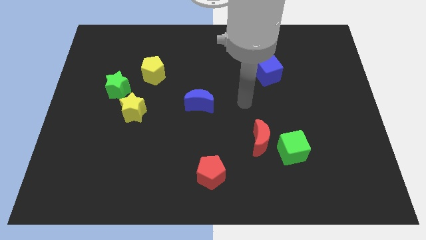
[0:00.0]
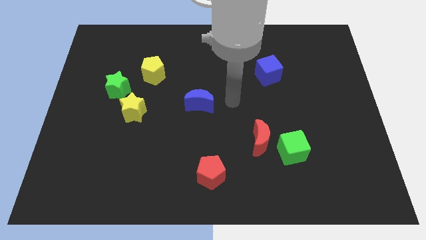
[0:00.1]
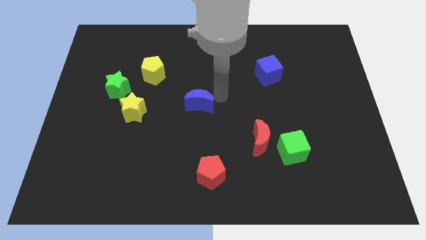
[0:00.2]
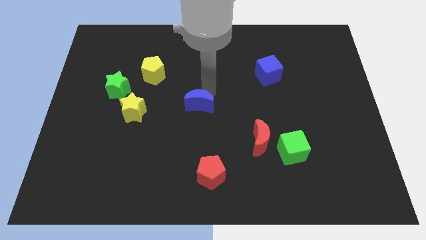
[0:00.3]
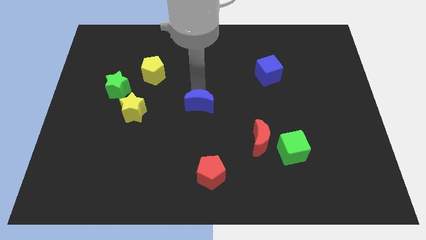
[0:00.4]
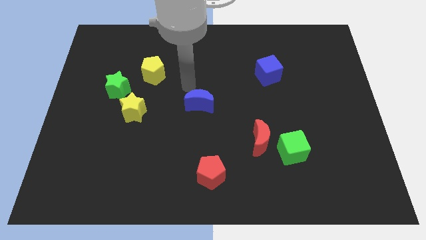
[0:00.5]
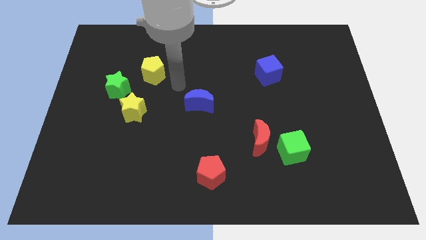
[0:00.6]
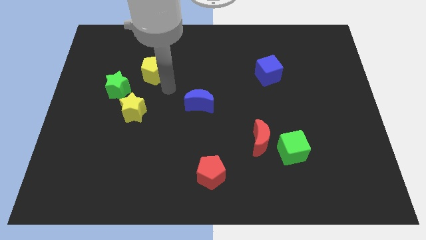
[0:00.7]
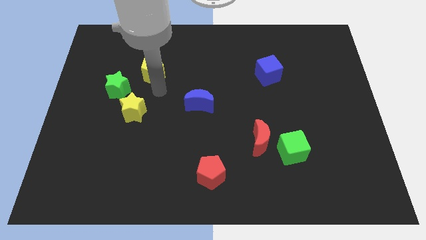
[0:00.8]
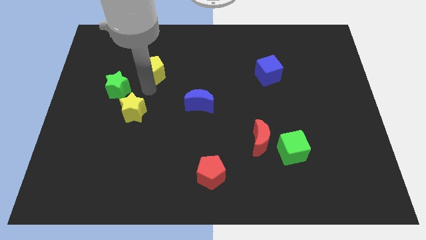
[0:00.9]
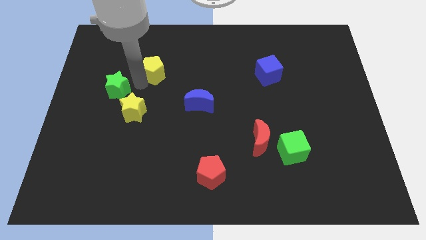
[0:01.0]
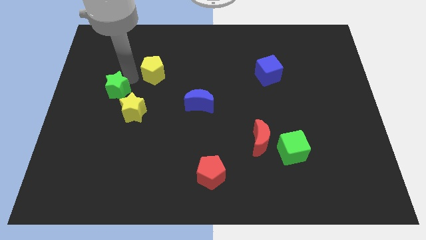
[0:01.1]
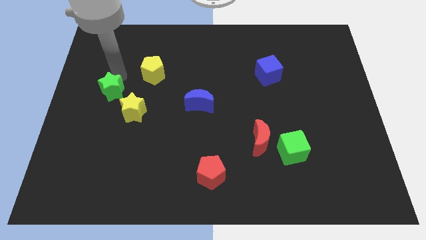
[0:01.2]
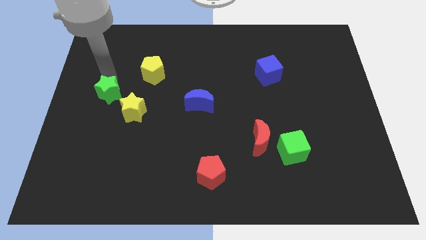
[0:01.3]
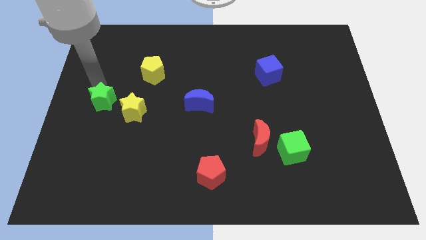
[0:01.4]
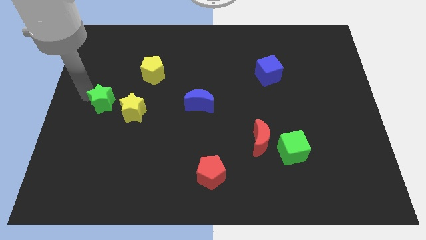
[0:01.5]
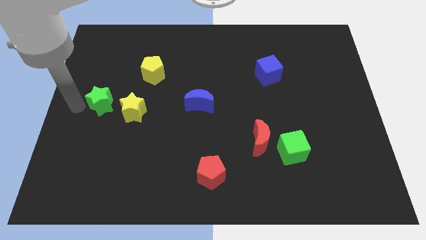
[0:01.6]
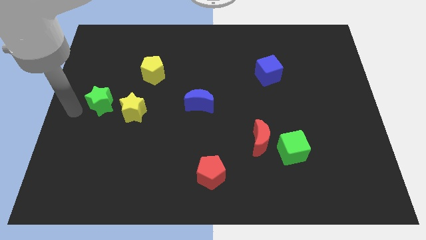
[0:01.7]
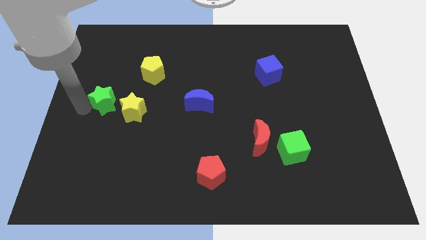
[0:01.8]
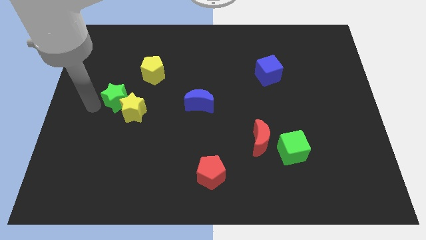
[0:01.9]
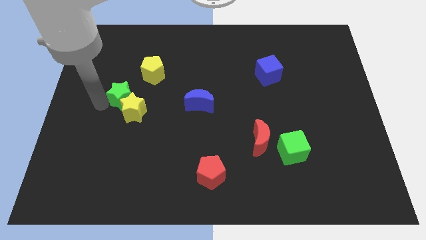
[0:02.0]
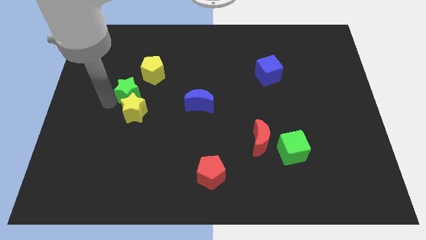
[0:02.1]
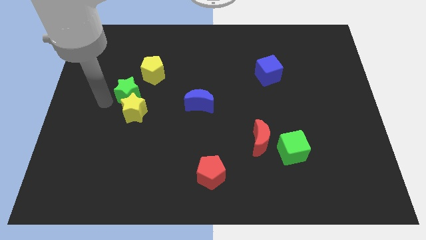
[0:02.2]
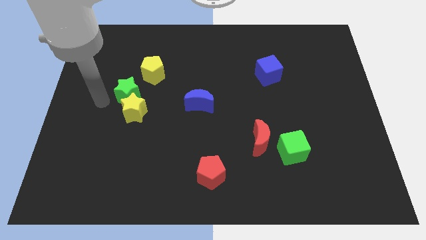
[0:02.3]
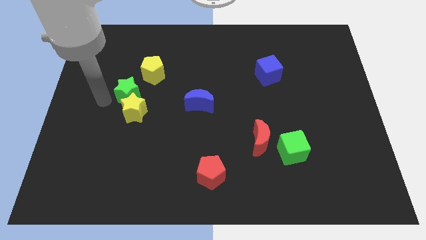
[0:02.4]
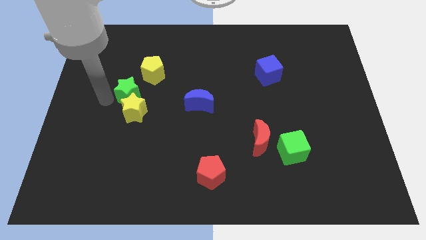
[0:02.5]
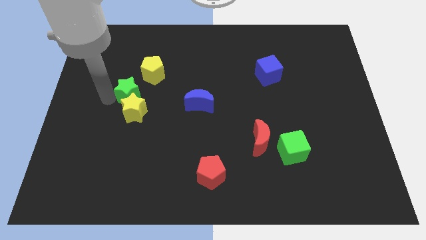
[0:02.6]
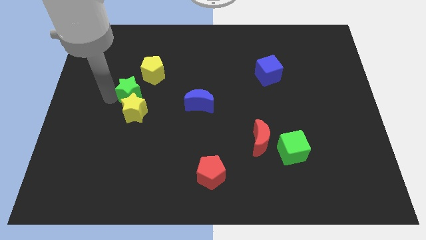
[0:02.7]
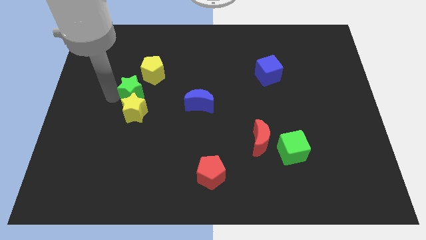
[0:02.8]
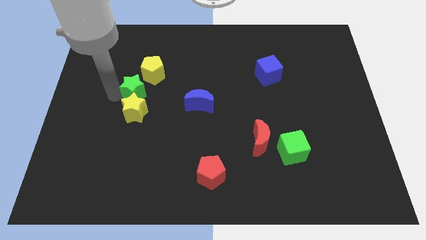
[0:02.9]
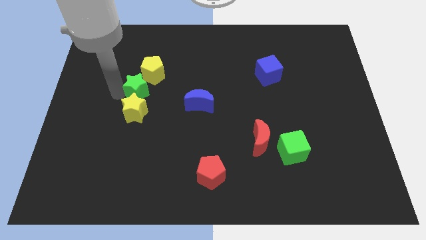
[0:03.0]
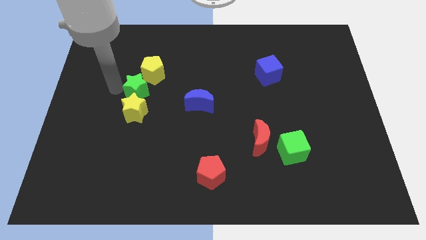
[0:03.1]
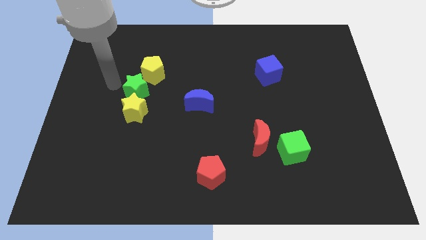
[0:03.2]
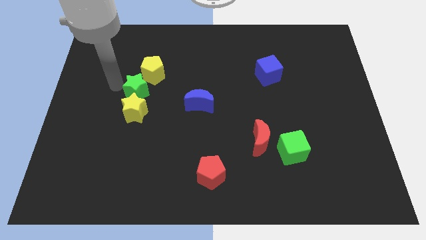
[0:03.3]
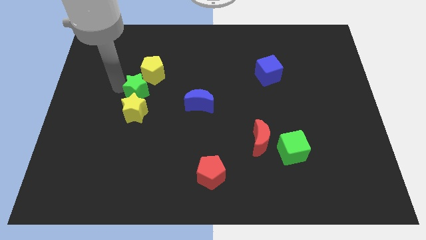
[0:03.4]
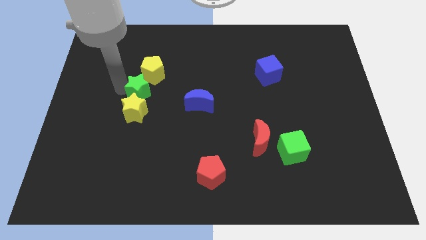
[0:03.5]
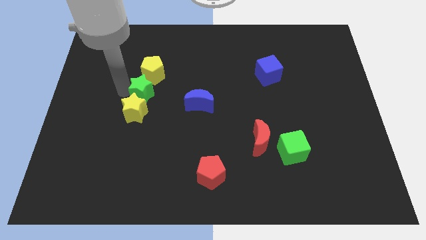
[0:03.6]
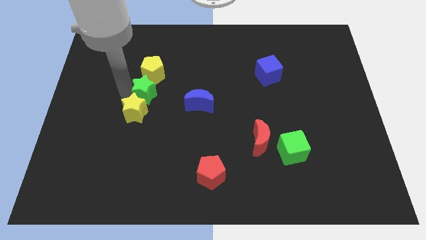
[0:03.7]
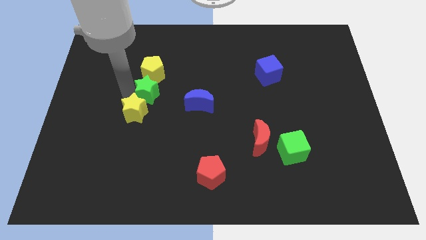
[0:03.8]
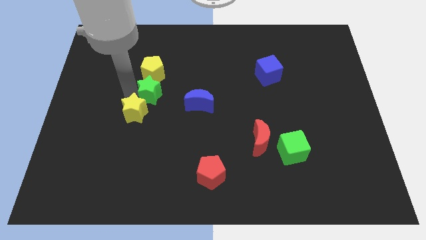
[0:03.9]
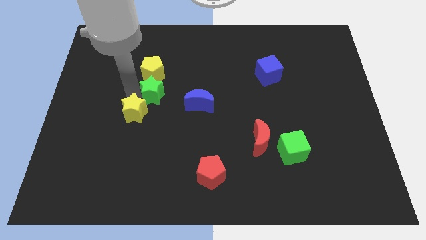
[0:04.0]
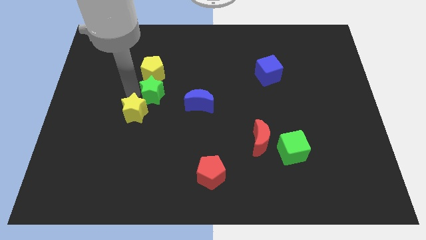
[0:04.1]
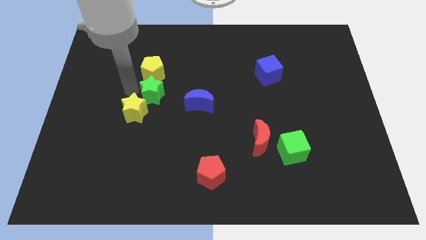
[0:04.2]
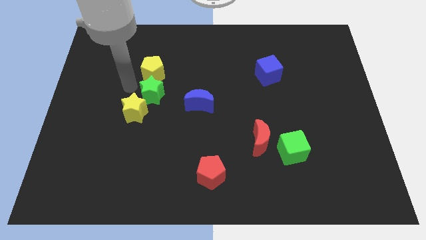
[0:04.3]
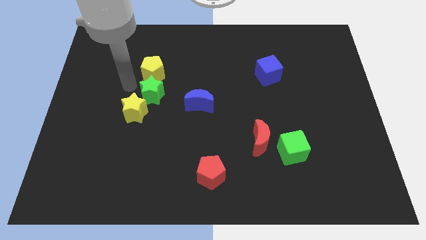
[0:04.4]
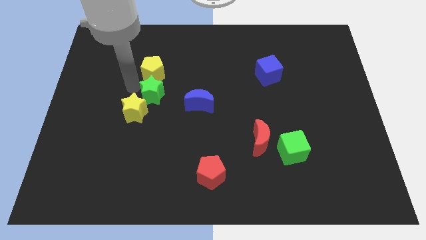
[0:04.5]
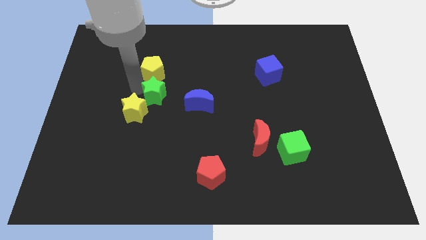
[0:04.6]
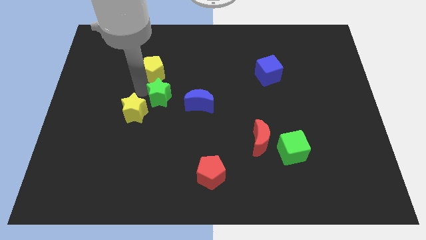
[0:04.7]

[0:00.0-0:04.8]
move the green star slightly downwards and to the right

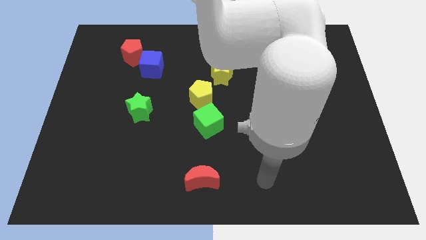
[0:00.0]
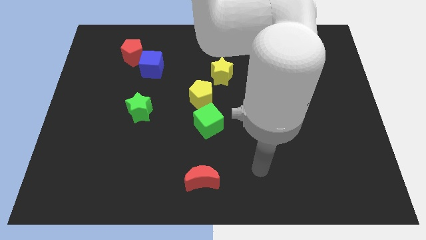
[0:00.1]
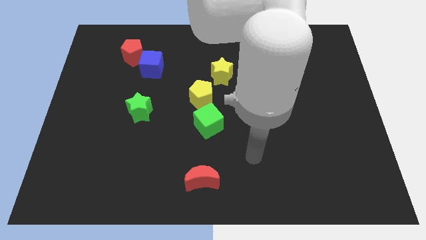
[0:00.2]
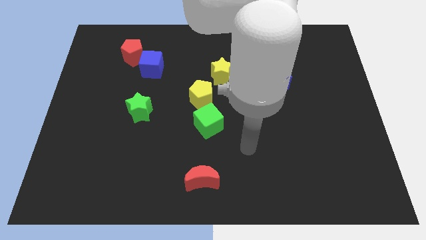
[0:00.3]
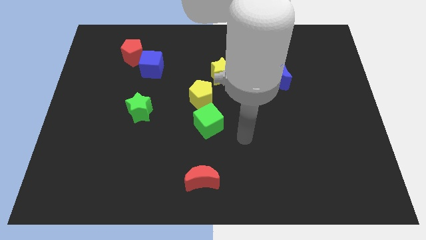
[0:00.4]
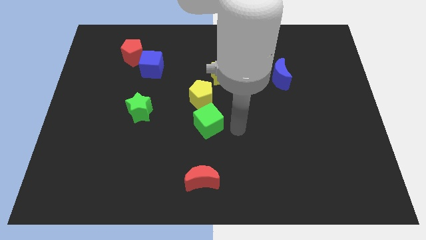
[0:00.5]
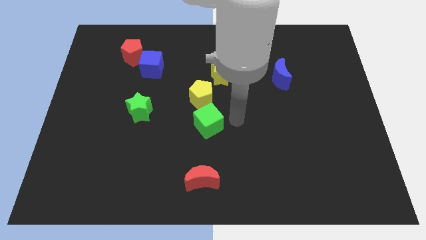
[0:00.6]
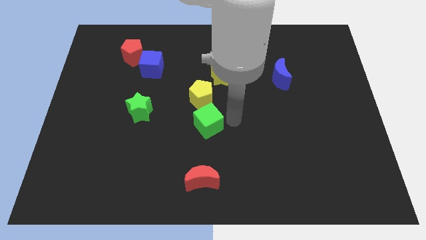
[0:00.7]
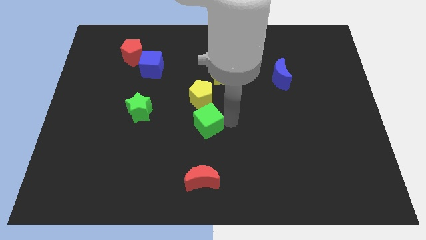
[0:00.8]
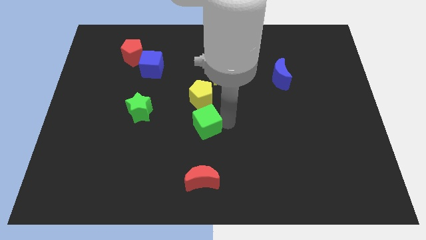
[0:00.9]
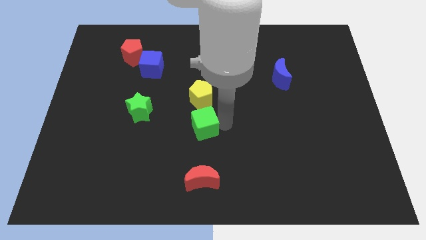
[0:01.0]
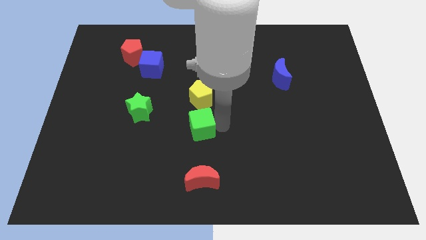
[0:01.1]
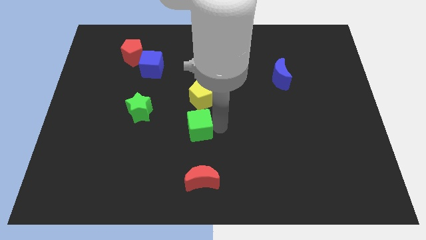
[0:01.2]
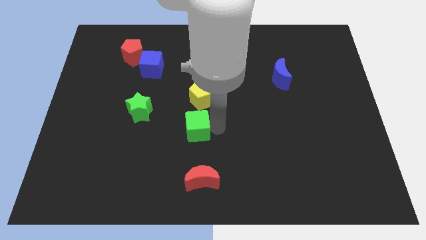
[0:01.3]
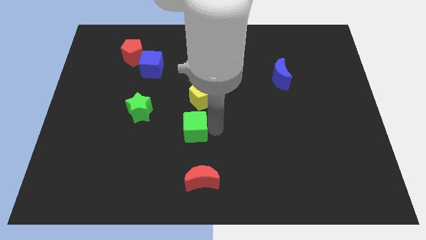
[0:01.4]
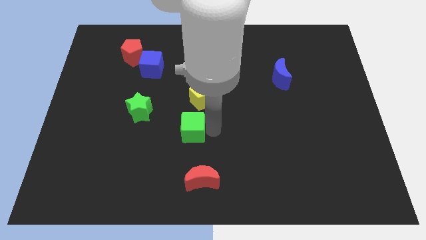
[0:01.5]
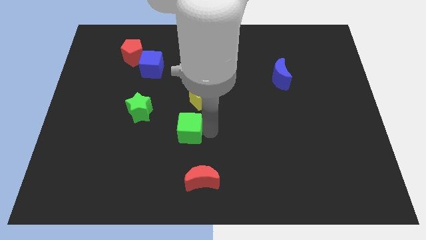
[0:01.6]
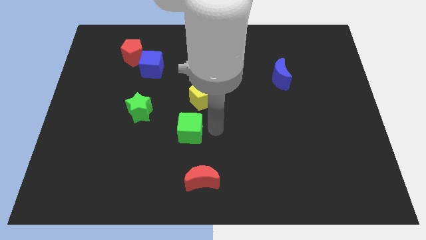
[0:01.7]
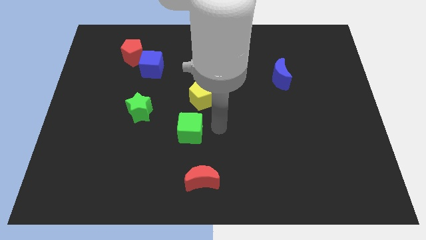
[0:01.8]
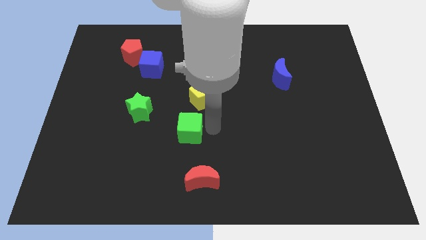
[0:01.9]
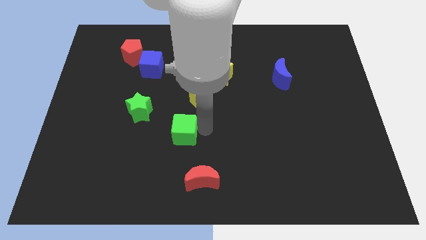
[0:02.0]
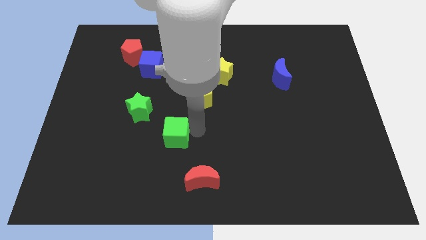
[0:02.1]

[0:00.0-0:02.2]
slide the green cube a bit left

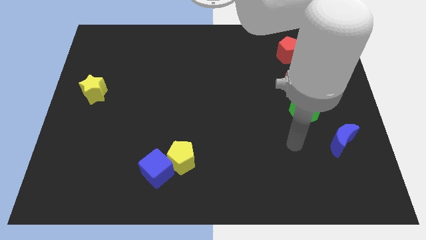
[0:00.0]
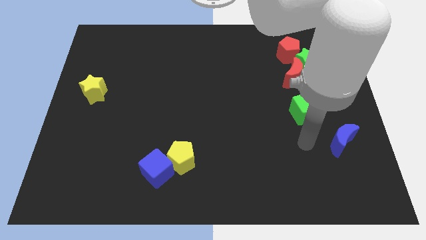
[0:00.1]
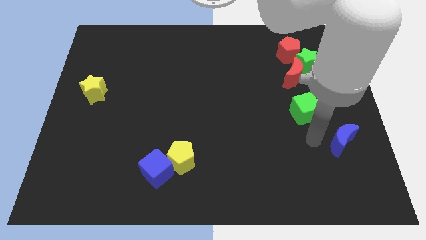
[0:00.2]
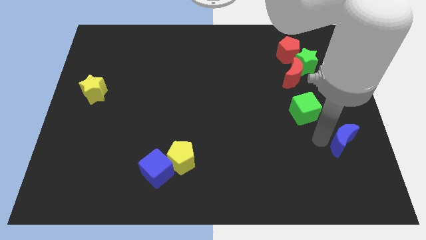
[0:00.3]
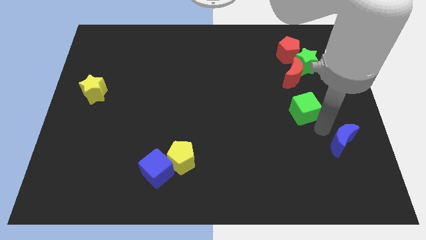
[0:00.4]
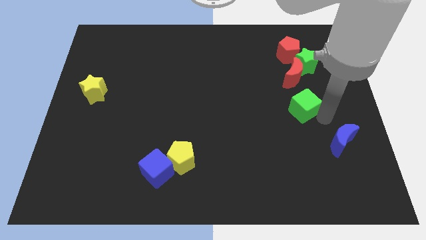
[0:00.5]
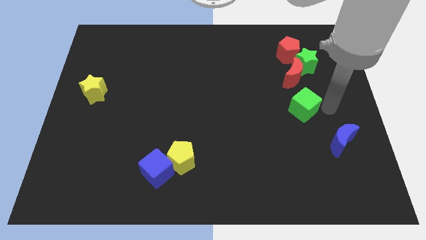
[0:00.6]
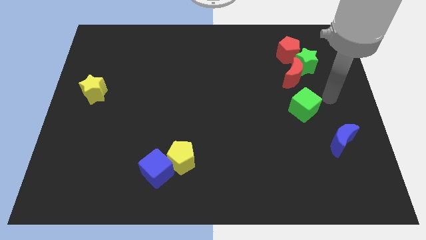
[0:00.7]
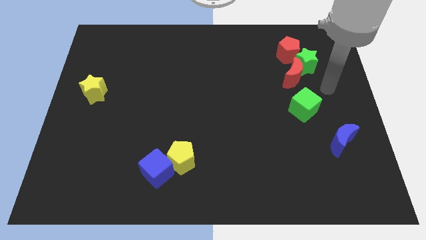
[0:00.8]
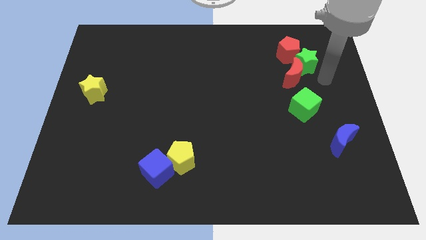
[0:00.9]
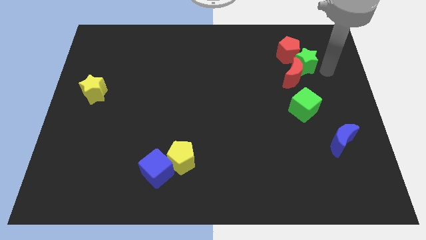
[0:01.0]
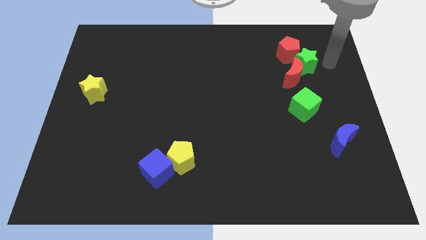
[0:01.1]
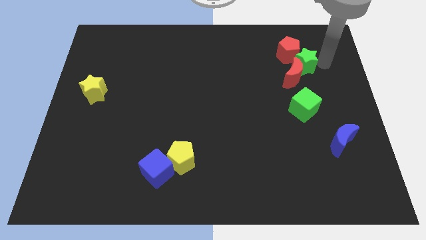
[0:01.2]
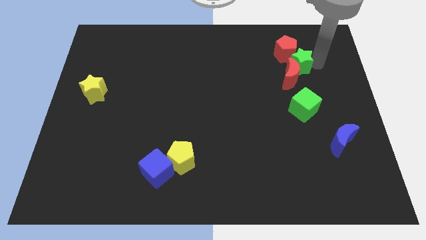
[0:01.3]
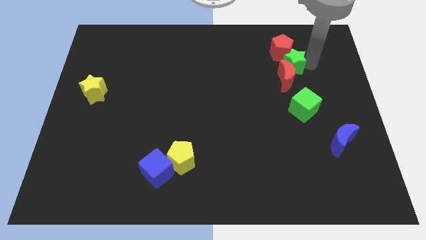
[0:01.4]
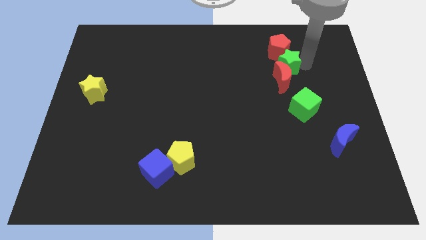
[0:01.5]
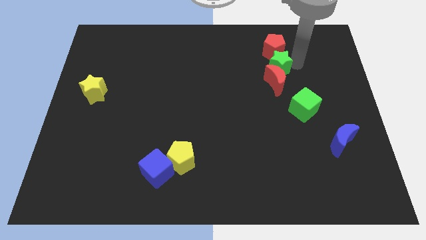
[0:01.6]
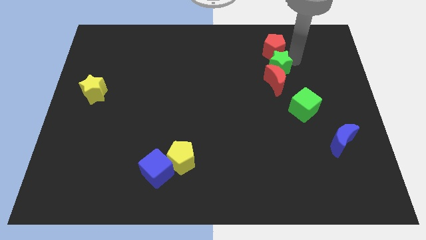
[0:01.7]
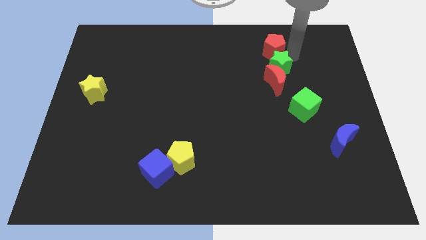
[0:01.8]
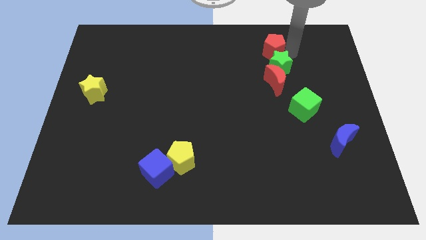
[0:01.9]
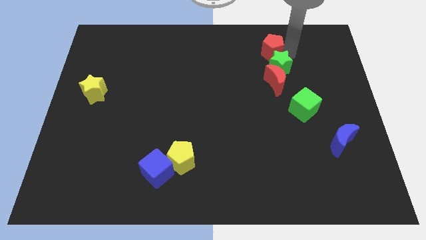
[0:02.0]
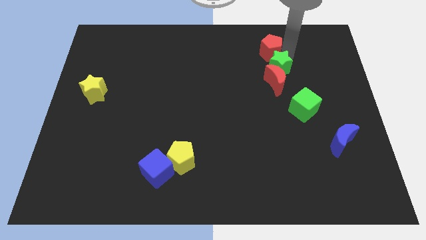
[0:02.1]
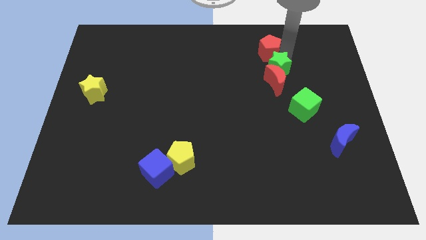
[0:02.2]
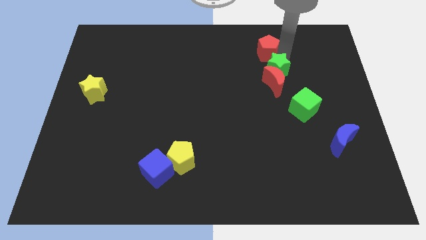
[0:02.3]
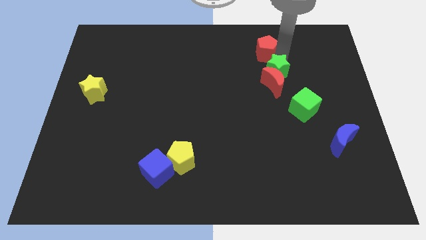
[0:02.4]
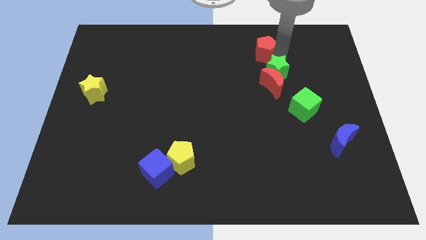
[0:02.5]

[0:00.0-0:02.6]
slide the green star slightly diagonally down and to the left
